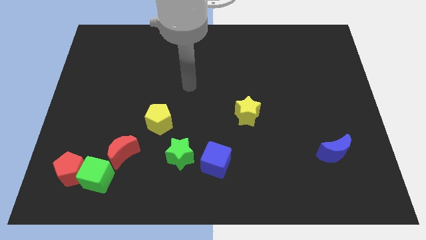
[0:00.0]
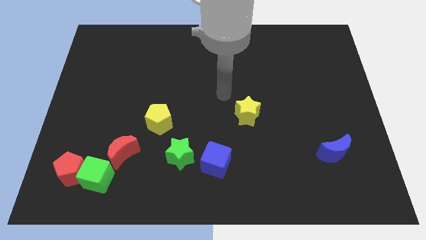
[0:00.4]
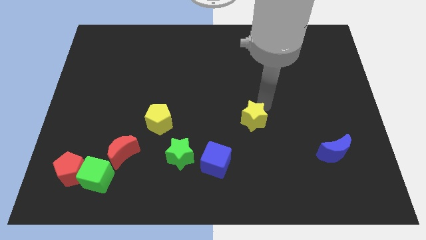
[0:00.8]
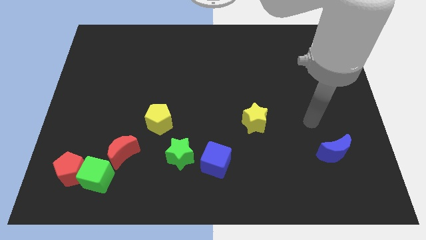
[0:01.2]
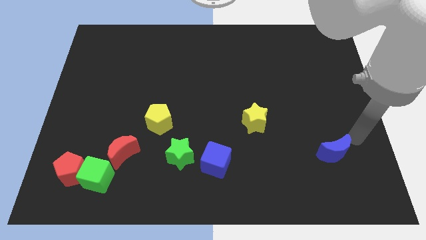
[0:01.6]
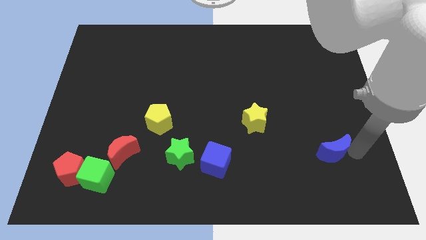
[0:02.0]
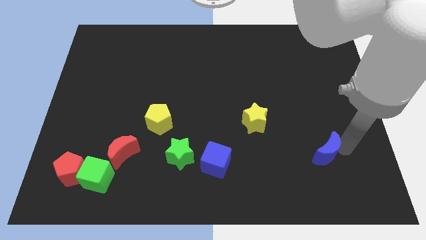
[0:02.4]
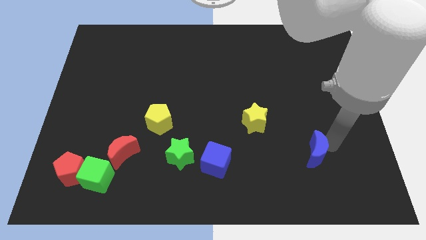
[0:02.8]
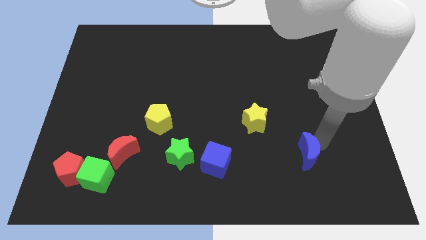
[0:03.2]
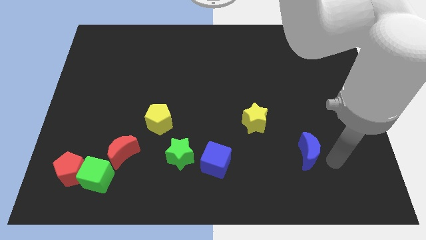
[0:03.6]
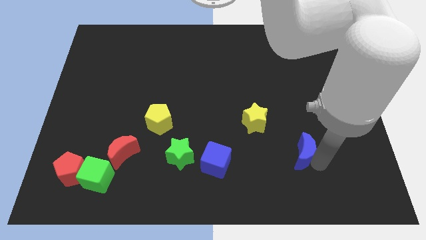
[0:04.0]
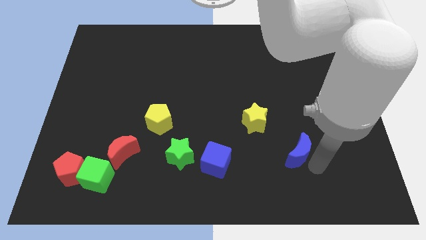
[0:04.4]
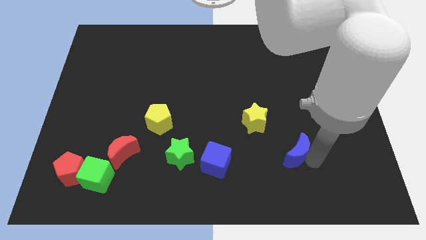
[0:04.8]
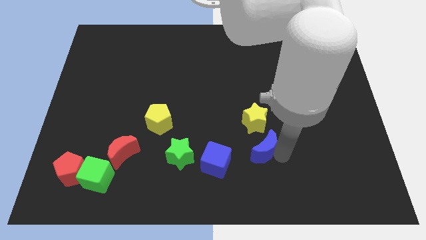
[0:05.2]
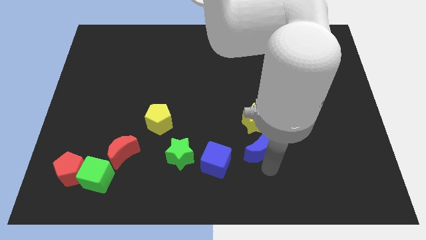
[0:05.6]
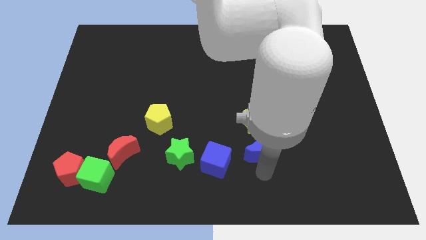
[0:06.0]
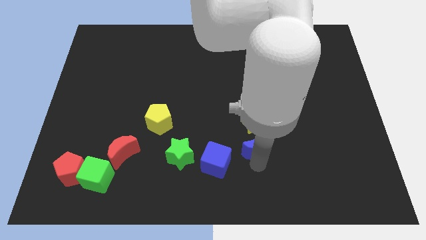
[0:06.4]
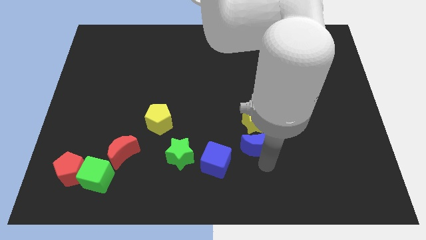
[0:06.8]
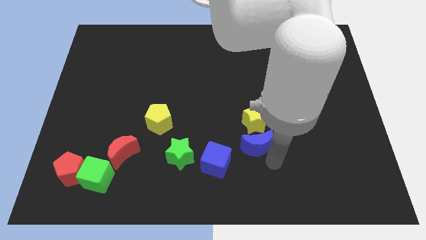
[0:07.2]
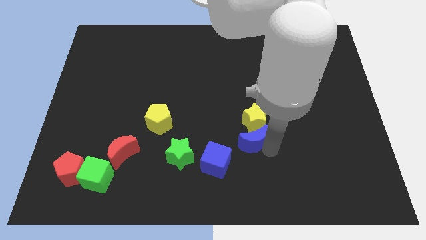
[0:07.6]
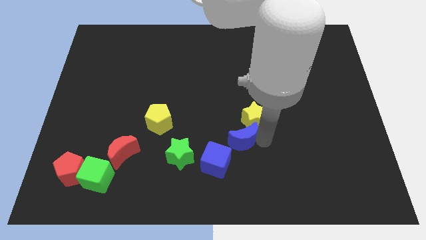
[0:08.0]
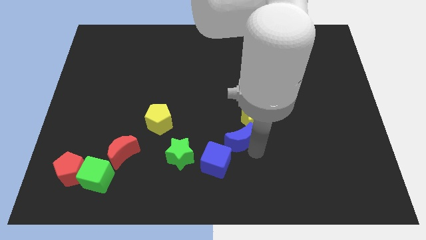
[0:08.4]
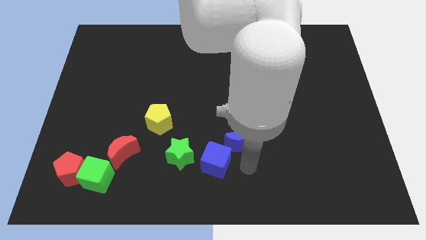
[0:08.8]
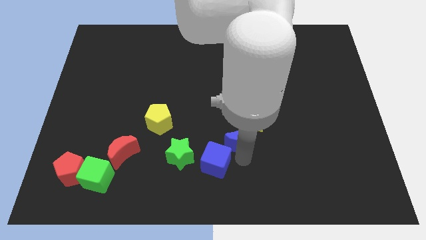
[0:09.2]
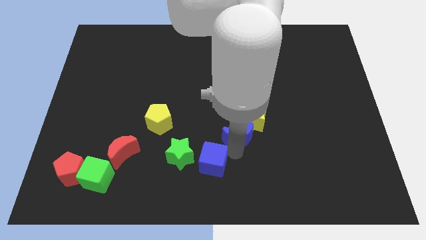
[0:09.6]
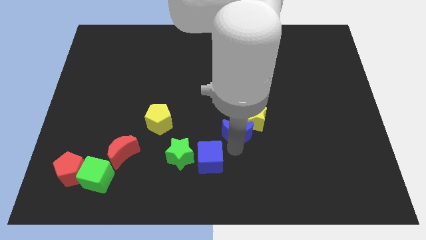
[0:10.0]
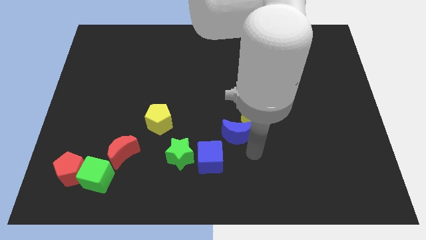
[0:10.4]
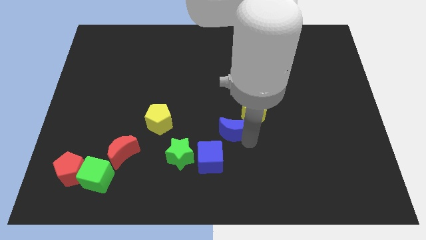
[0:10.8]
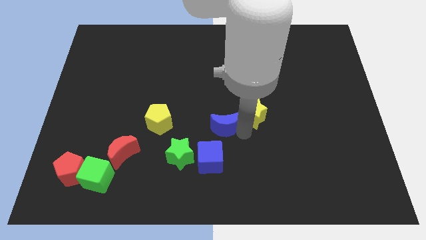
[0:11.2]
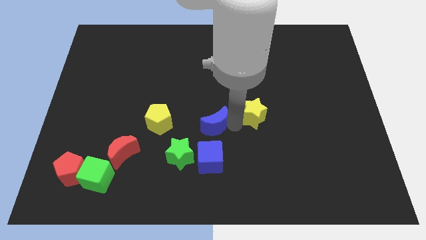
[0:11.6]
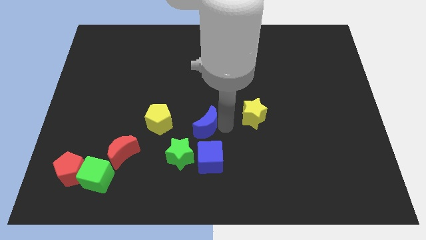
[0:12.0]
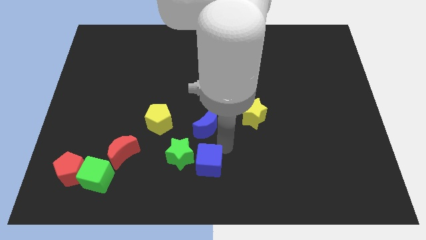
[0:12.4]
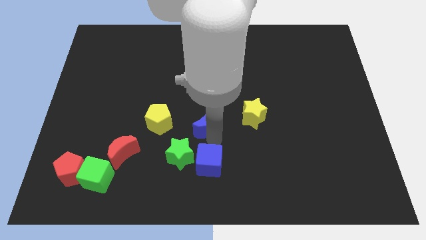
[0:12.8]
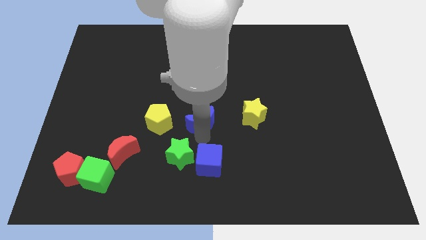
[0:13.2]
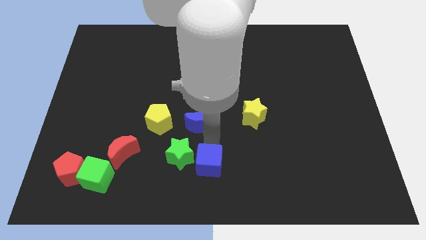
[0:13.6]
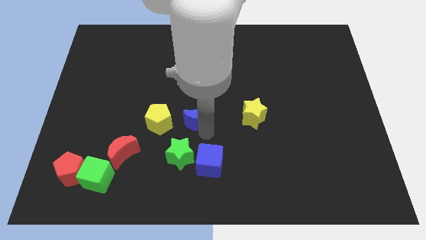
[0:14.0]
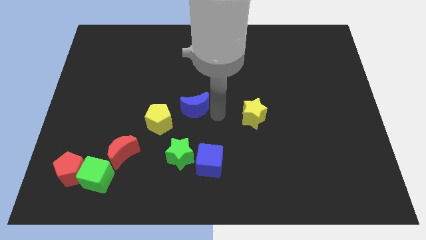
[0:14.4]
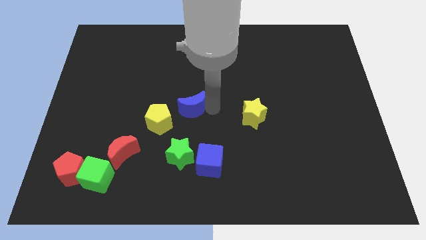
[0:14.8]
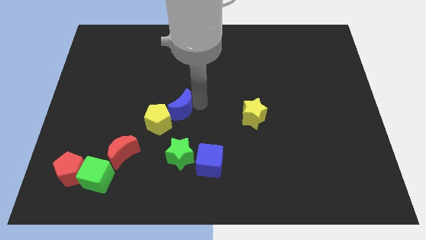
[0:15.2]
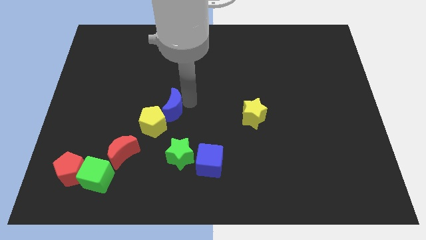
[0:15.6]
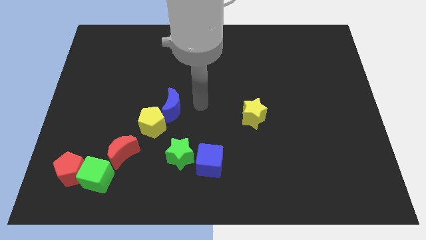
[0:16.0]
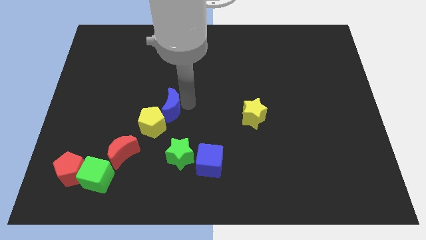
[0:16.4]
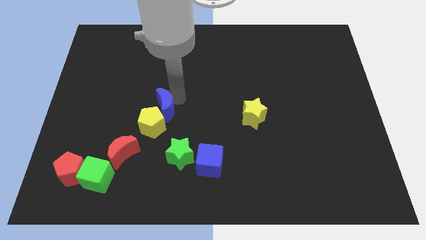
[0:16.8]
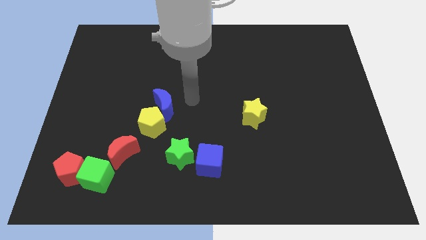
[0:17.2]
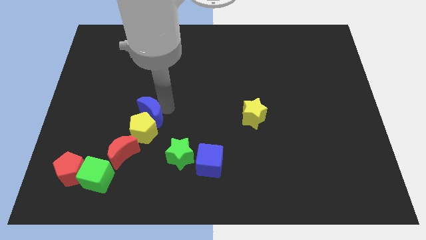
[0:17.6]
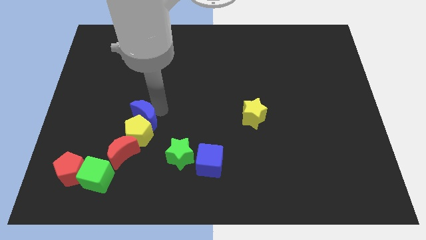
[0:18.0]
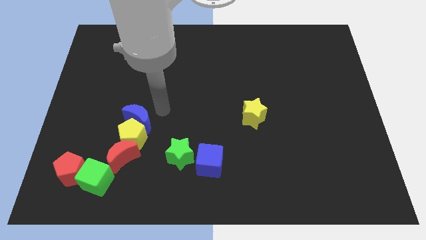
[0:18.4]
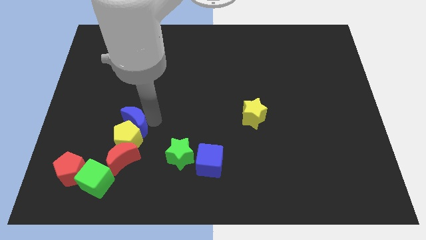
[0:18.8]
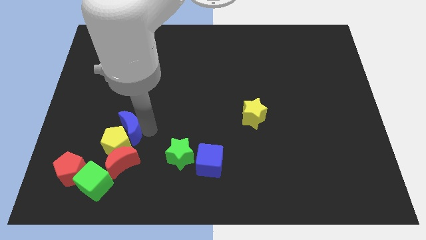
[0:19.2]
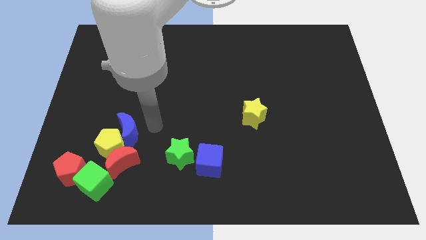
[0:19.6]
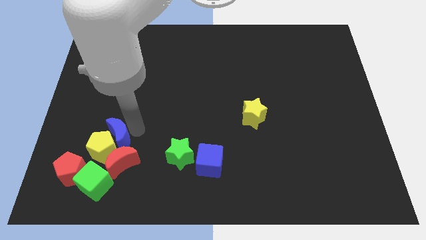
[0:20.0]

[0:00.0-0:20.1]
push the blue moon above the green cube

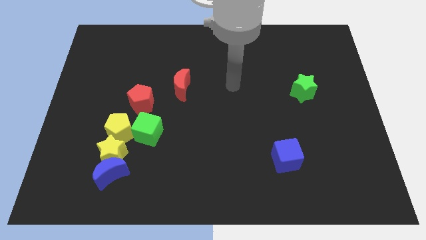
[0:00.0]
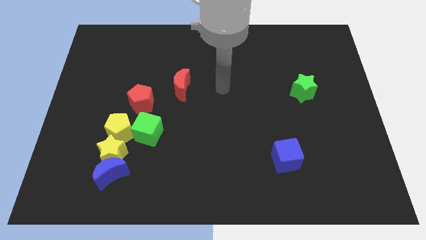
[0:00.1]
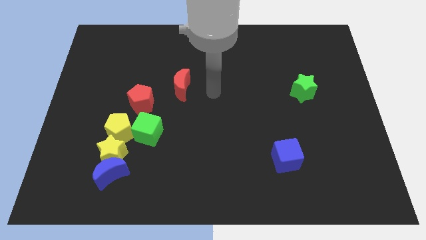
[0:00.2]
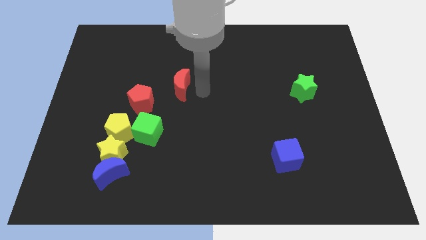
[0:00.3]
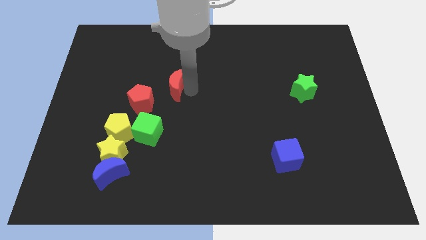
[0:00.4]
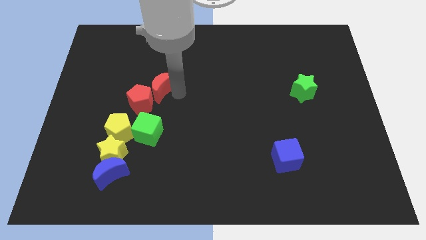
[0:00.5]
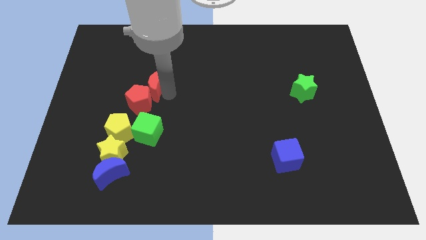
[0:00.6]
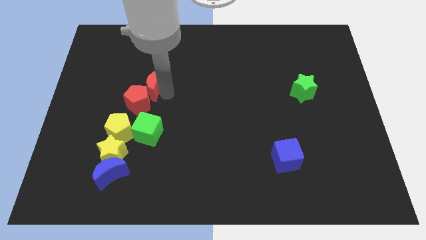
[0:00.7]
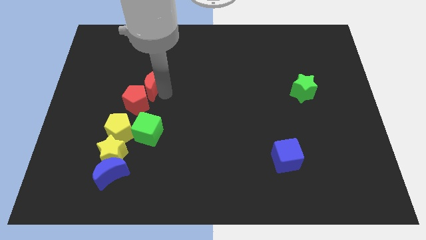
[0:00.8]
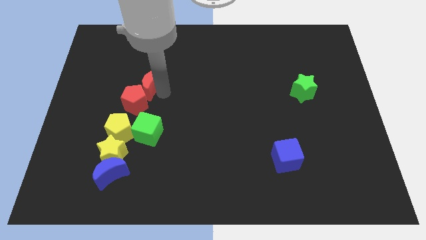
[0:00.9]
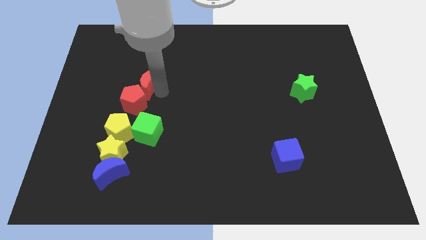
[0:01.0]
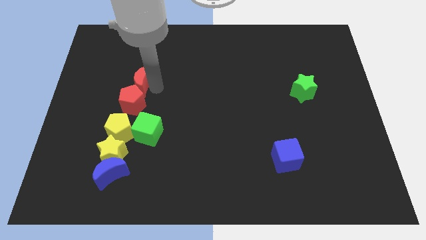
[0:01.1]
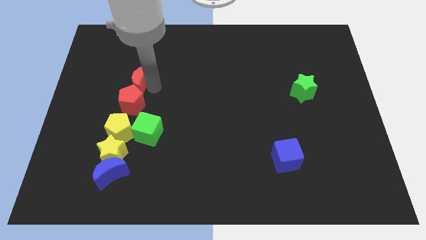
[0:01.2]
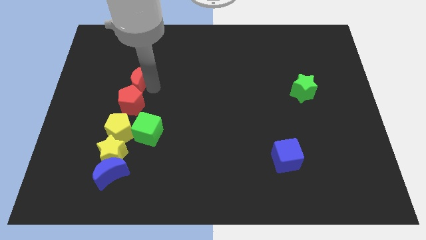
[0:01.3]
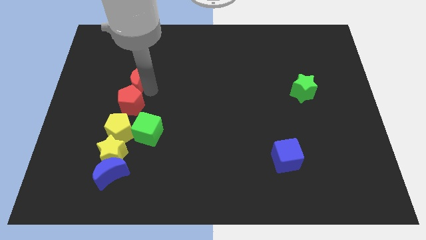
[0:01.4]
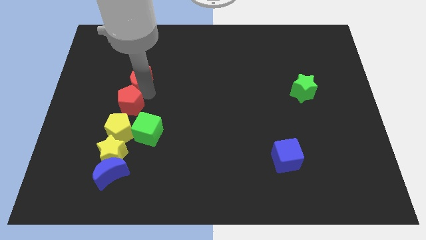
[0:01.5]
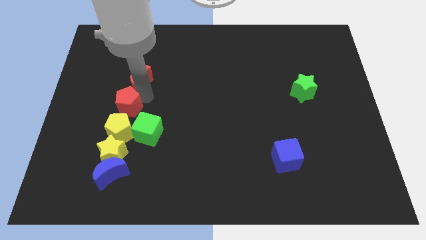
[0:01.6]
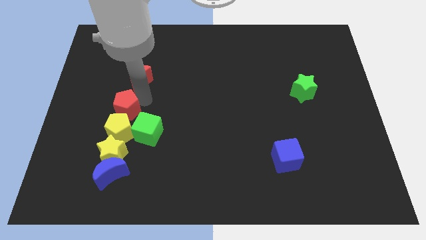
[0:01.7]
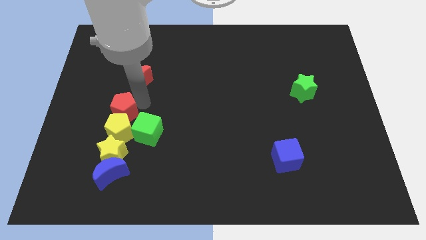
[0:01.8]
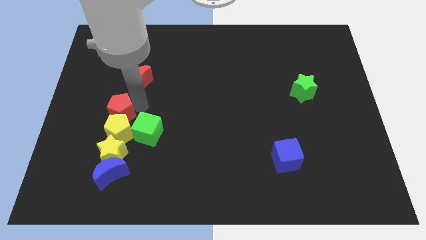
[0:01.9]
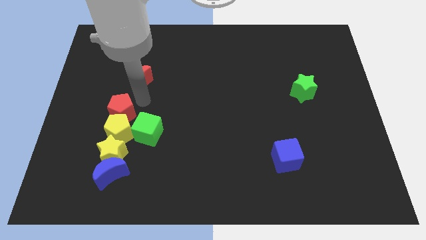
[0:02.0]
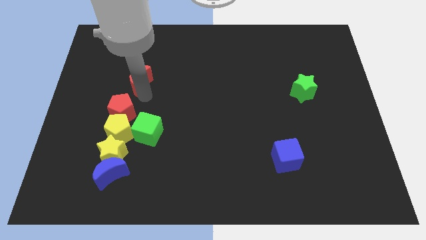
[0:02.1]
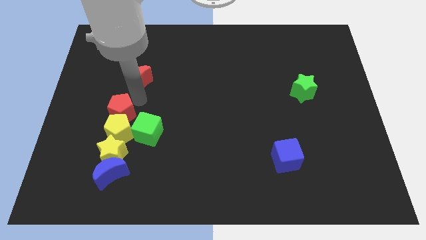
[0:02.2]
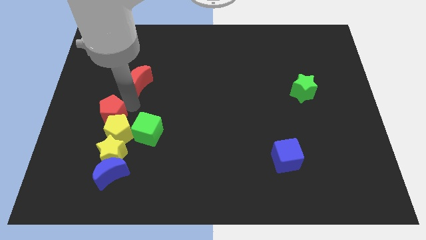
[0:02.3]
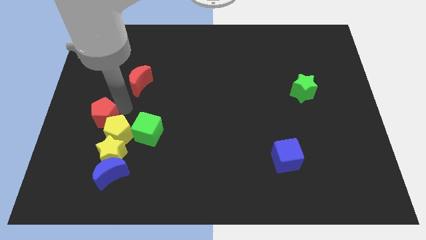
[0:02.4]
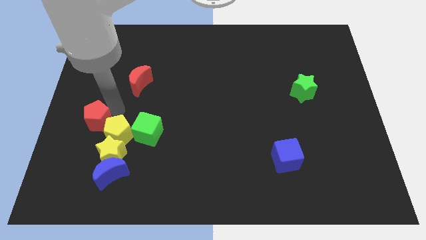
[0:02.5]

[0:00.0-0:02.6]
push the red pentagon to the top left of the yellow star

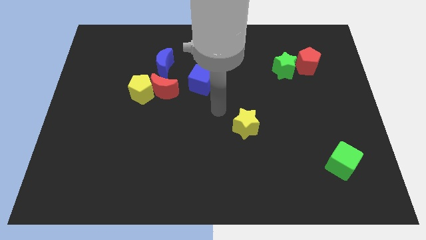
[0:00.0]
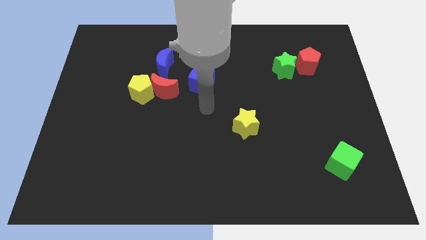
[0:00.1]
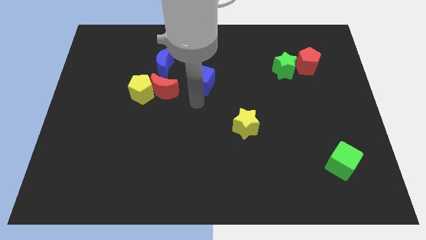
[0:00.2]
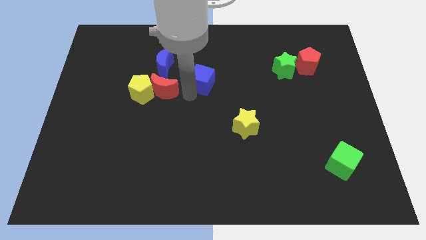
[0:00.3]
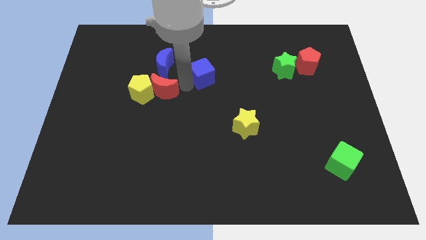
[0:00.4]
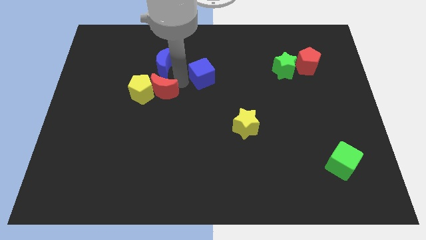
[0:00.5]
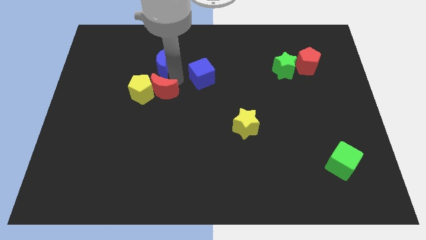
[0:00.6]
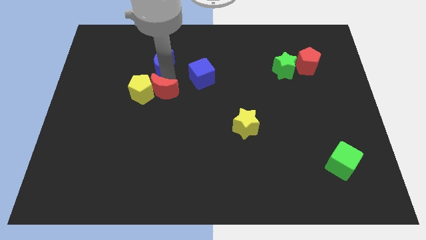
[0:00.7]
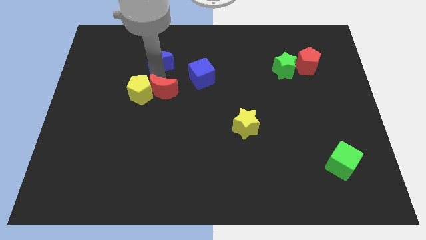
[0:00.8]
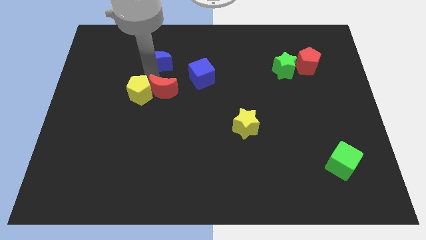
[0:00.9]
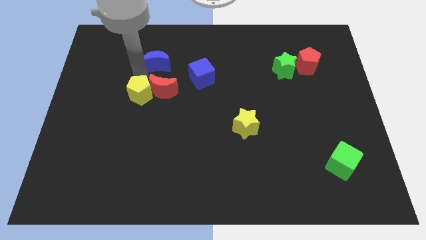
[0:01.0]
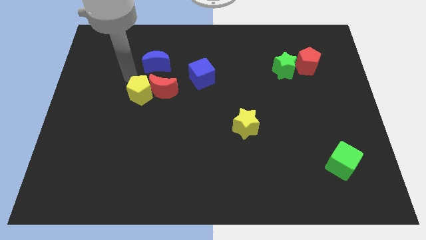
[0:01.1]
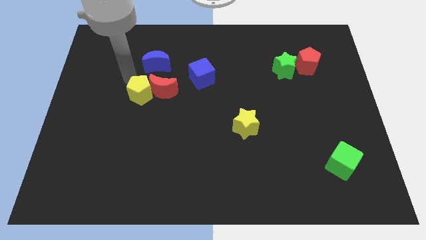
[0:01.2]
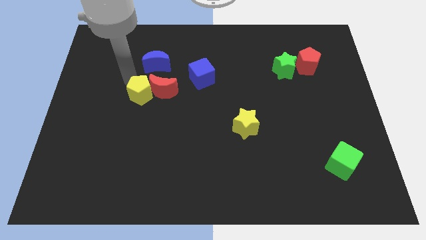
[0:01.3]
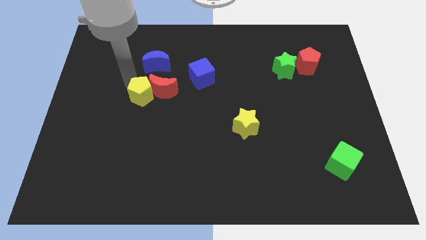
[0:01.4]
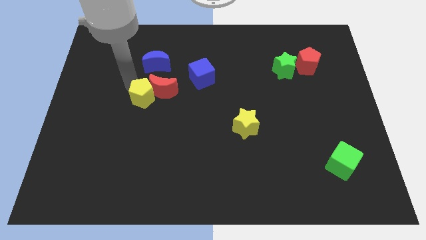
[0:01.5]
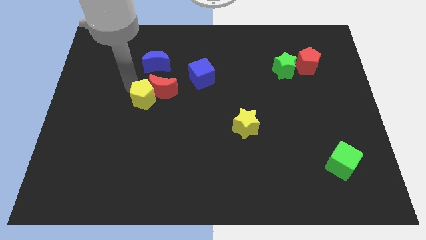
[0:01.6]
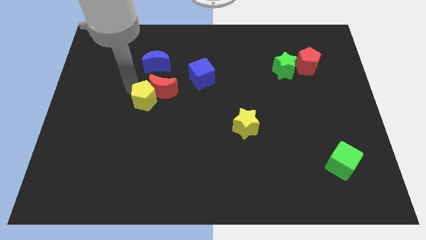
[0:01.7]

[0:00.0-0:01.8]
put the yellow pentagon to the bottom side of the red moon
